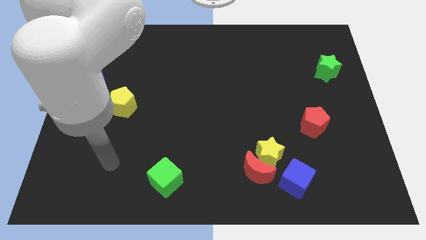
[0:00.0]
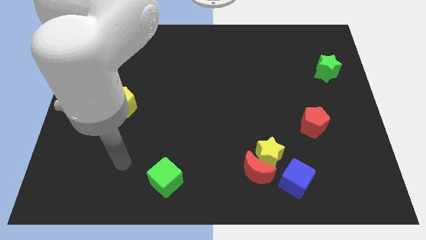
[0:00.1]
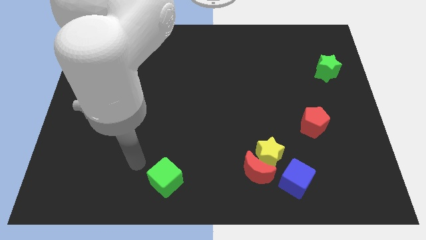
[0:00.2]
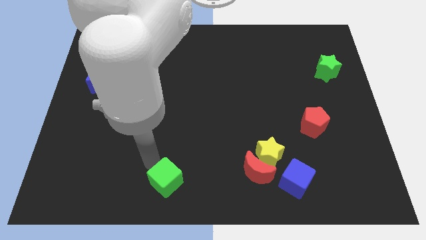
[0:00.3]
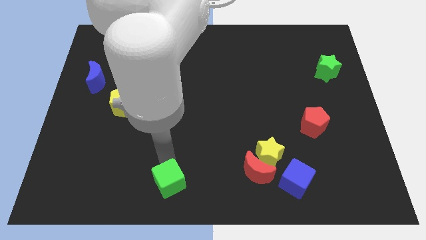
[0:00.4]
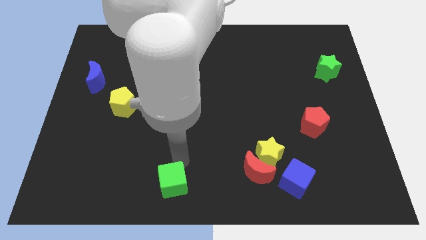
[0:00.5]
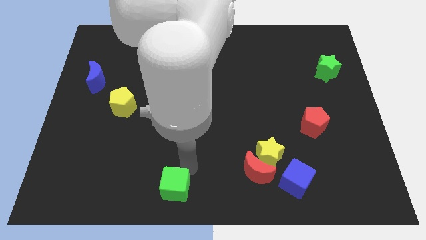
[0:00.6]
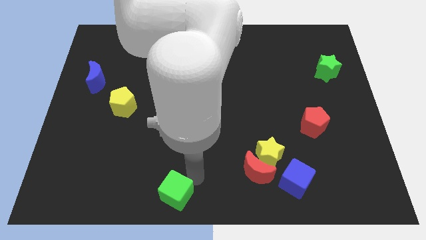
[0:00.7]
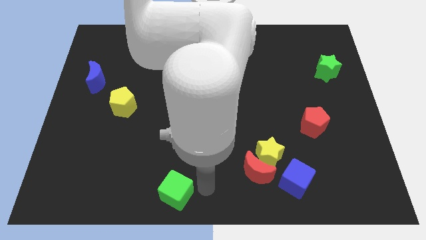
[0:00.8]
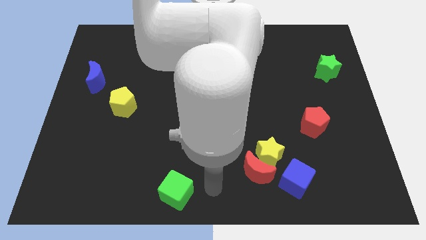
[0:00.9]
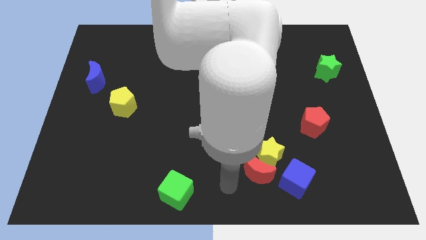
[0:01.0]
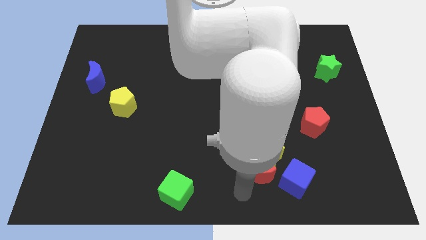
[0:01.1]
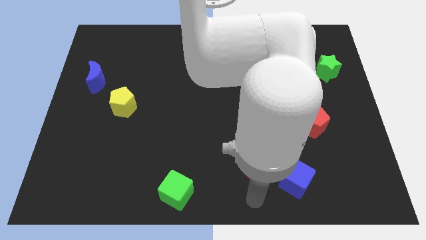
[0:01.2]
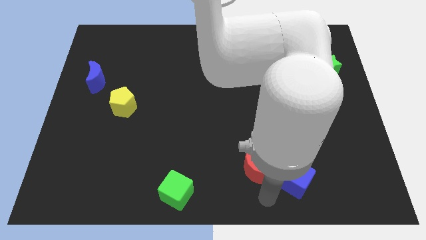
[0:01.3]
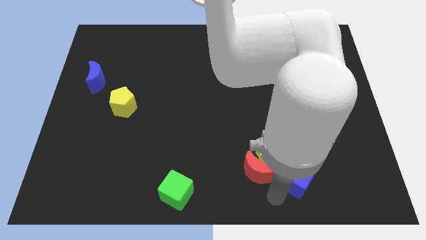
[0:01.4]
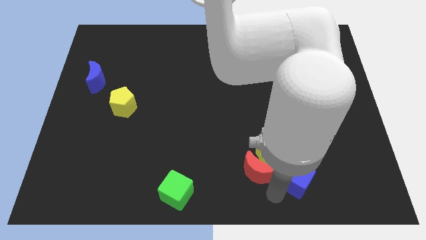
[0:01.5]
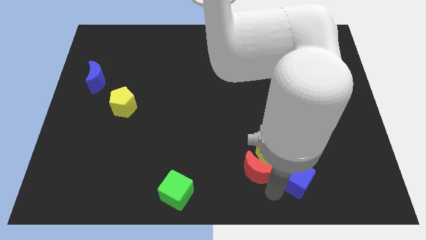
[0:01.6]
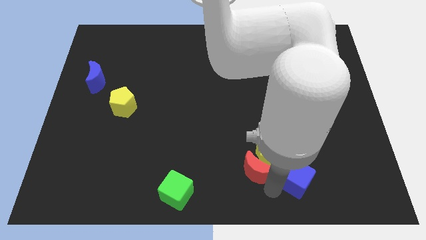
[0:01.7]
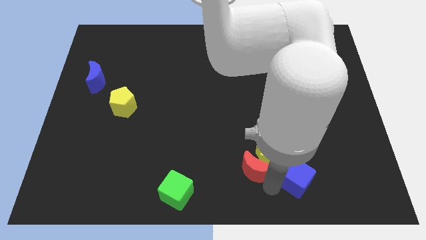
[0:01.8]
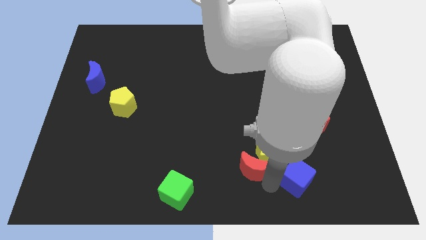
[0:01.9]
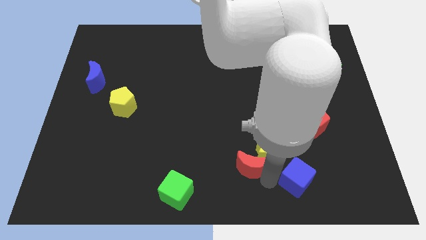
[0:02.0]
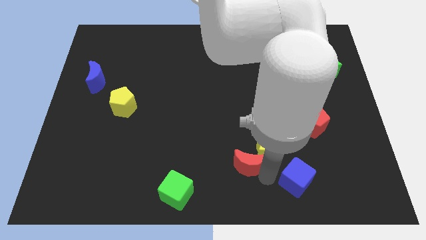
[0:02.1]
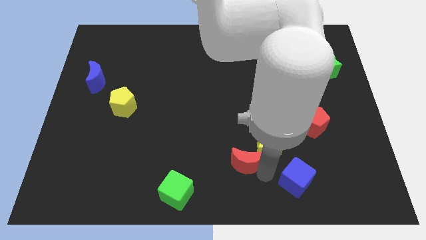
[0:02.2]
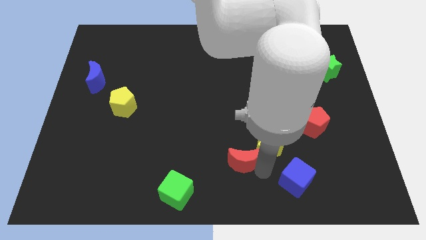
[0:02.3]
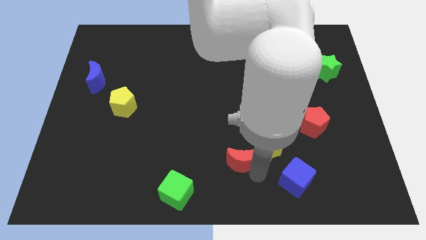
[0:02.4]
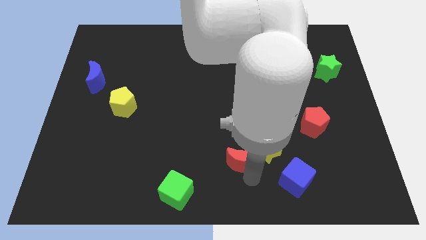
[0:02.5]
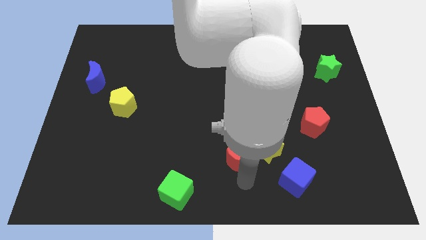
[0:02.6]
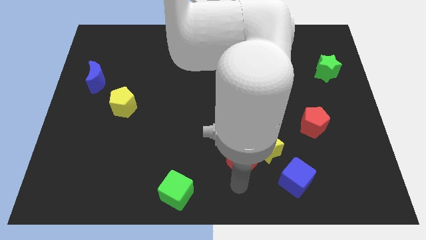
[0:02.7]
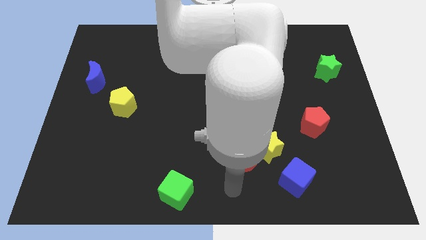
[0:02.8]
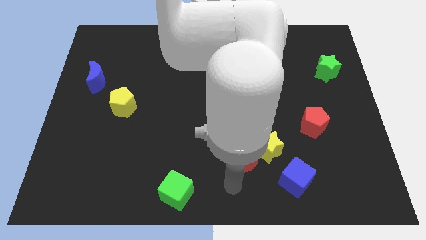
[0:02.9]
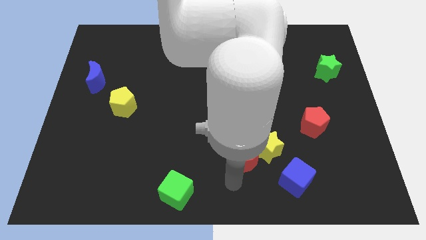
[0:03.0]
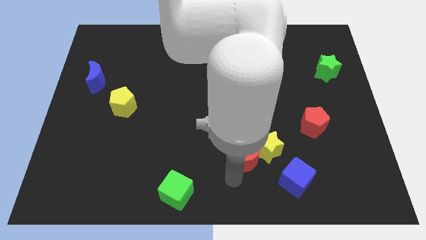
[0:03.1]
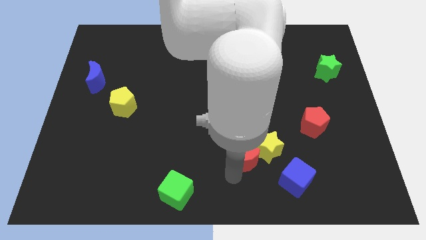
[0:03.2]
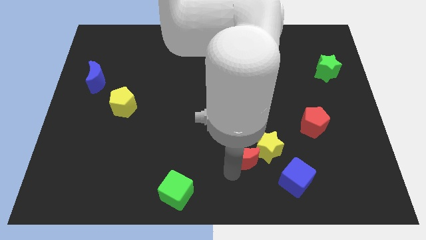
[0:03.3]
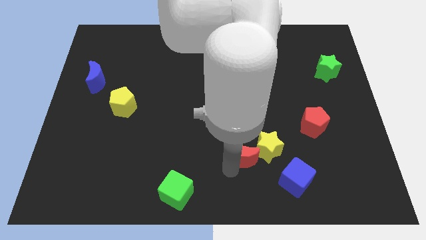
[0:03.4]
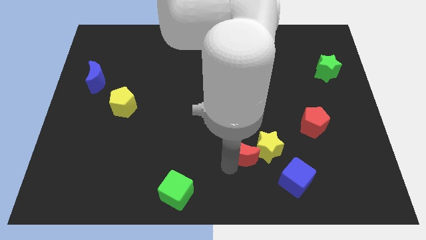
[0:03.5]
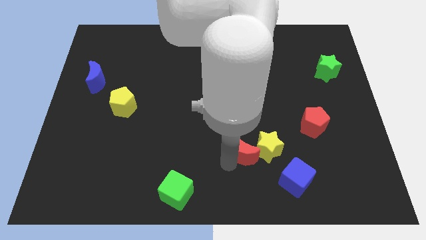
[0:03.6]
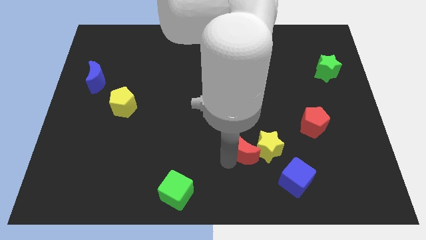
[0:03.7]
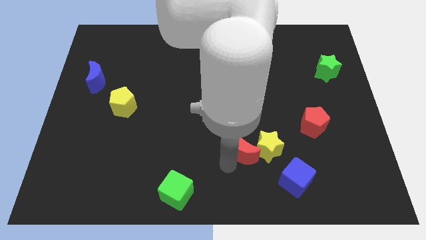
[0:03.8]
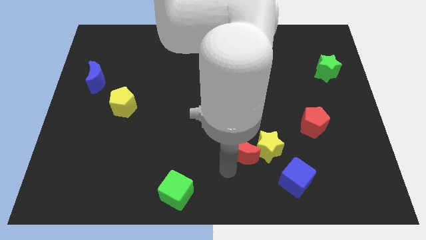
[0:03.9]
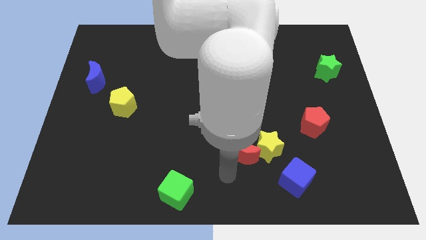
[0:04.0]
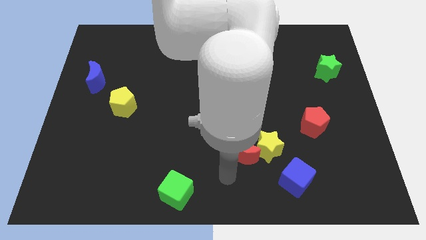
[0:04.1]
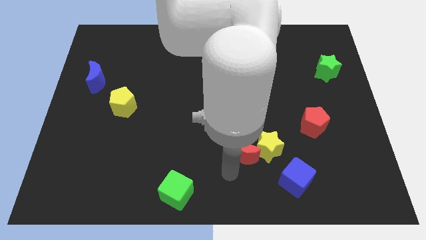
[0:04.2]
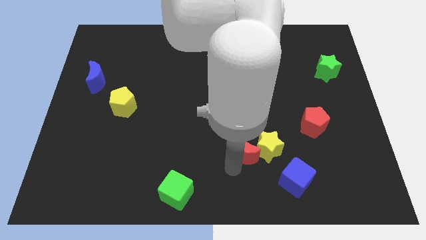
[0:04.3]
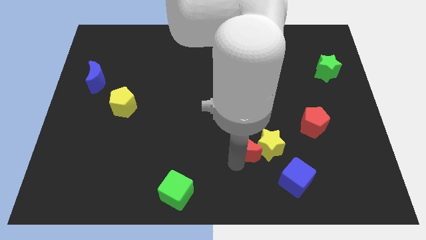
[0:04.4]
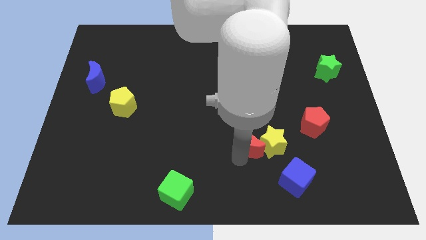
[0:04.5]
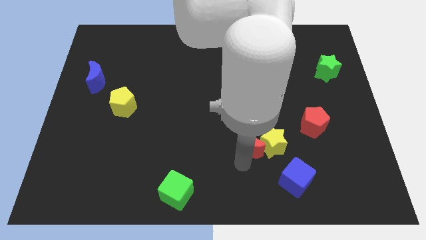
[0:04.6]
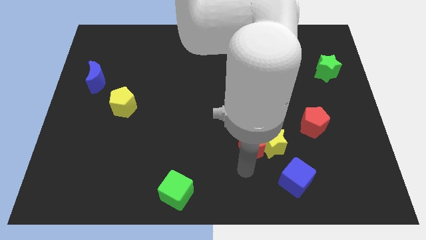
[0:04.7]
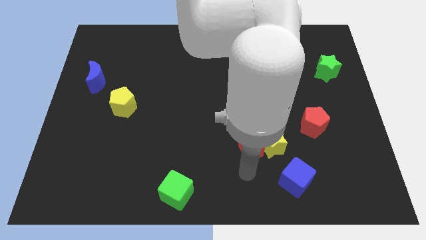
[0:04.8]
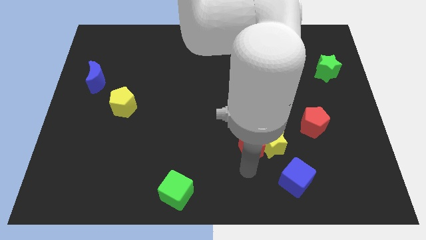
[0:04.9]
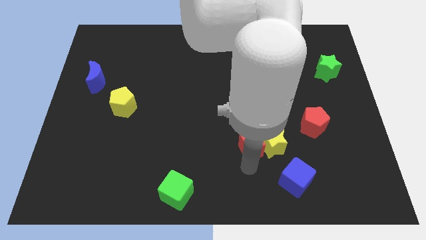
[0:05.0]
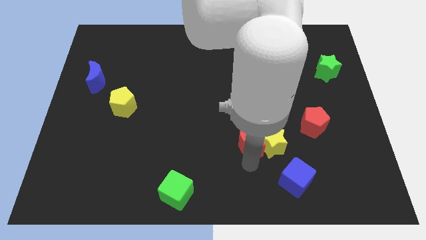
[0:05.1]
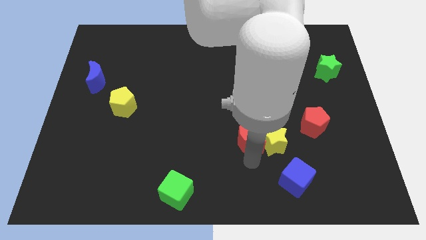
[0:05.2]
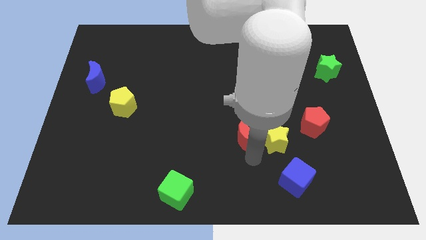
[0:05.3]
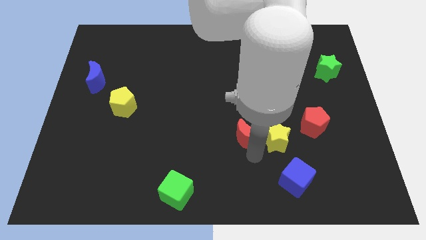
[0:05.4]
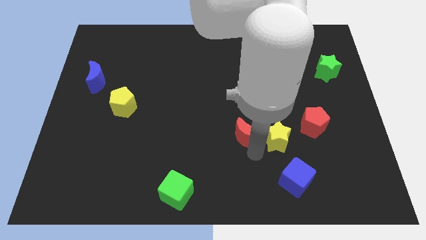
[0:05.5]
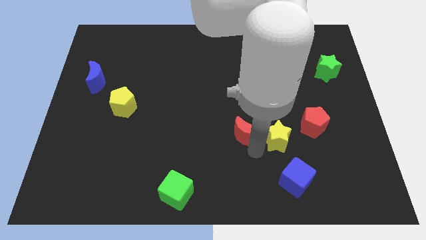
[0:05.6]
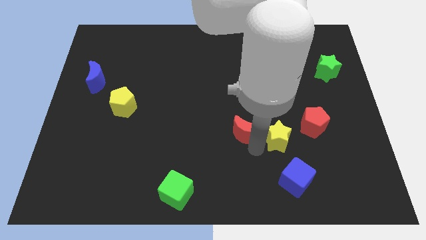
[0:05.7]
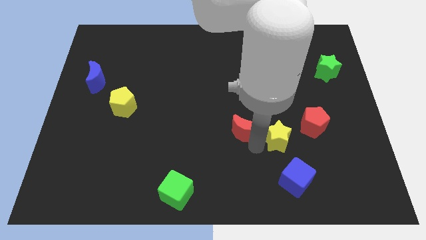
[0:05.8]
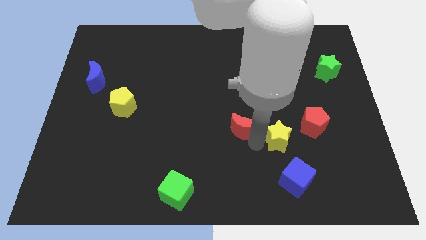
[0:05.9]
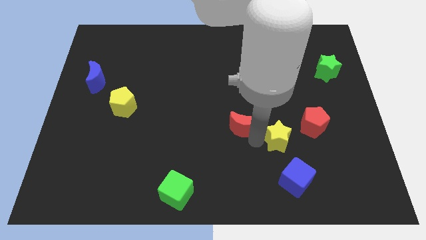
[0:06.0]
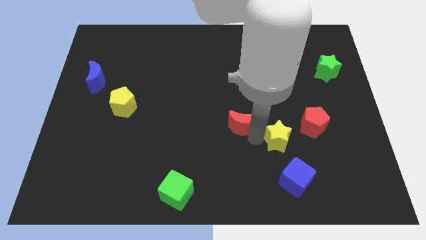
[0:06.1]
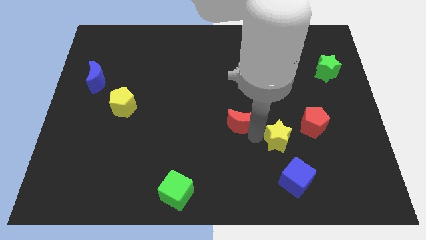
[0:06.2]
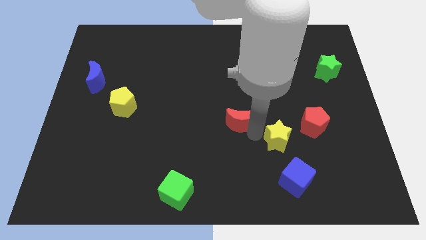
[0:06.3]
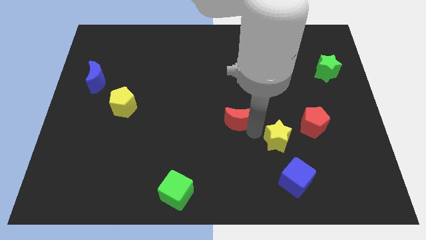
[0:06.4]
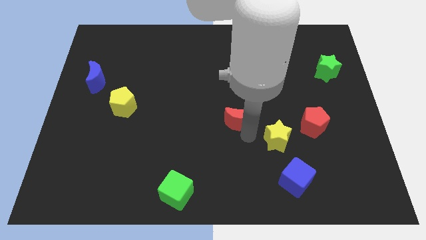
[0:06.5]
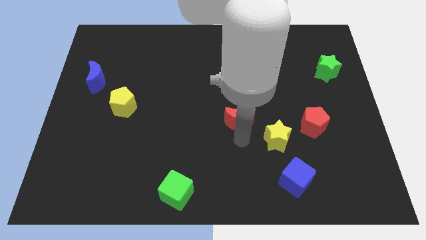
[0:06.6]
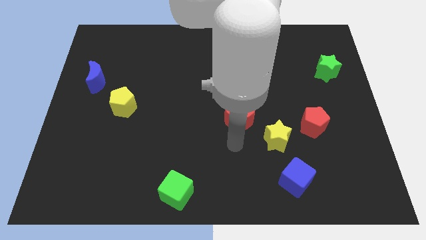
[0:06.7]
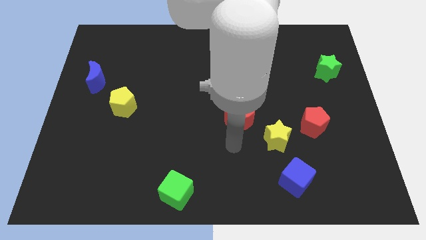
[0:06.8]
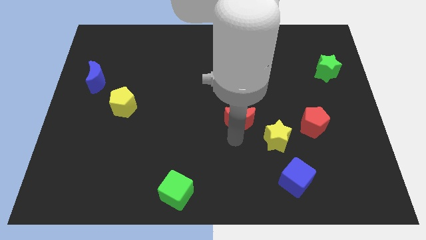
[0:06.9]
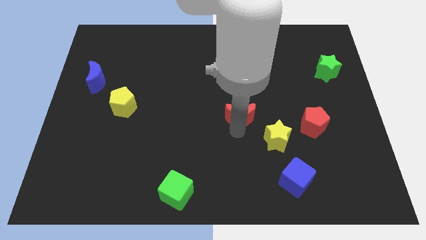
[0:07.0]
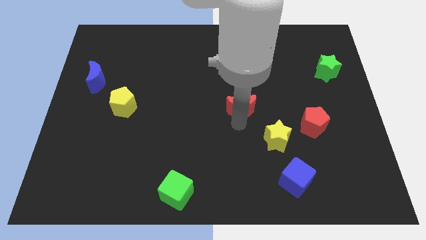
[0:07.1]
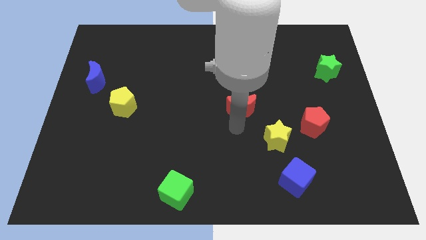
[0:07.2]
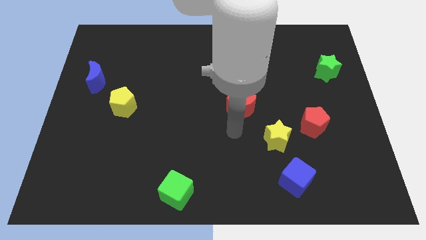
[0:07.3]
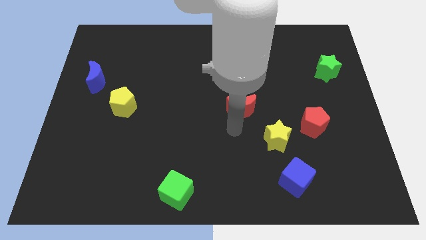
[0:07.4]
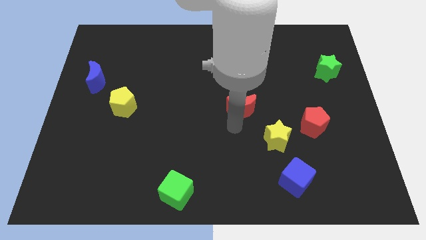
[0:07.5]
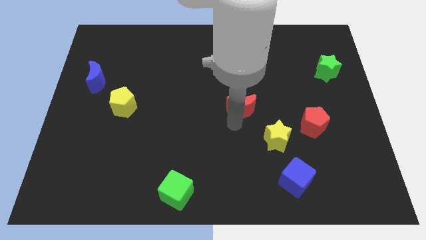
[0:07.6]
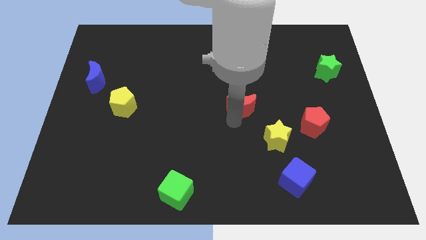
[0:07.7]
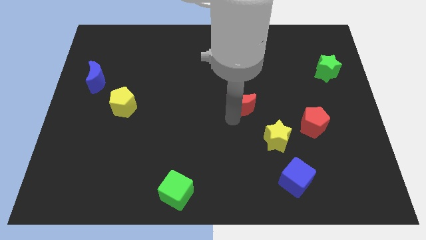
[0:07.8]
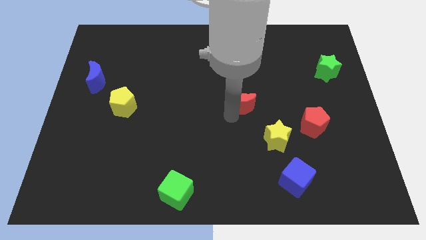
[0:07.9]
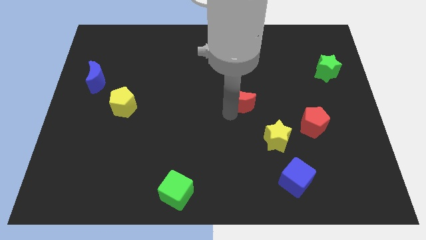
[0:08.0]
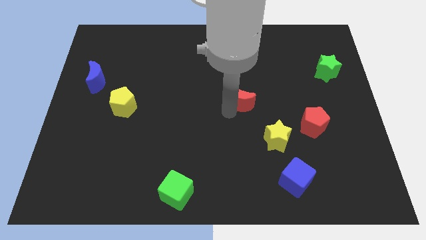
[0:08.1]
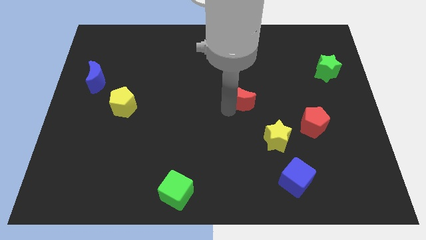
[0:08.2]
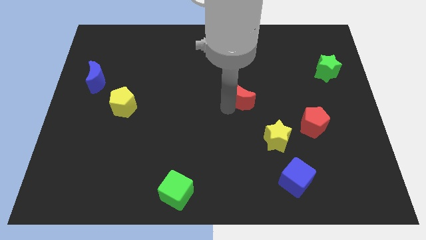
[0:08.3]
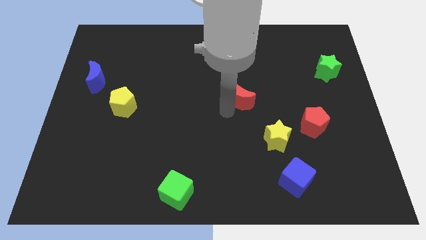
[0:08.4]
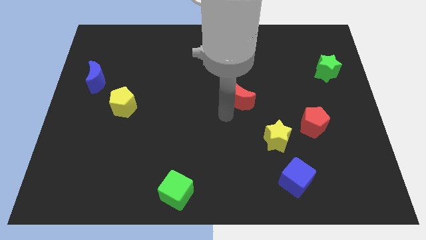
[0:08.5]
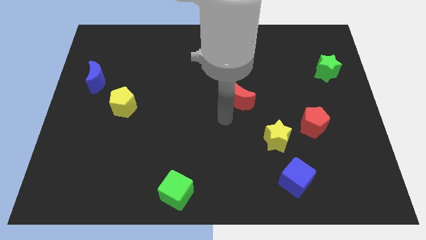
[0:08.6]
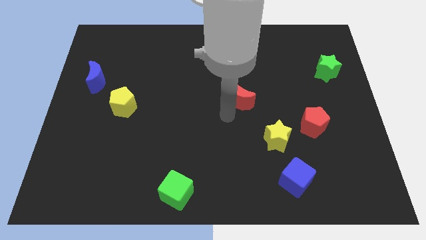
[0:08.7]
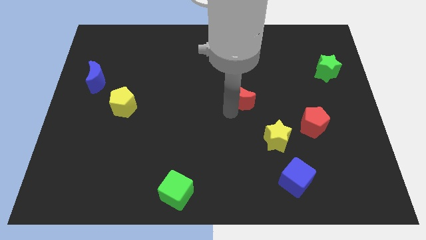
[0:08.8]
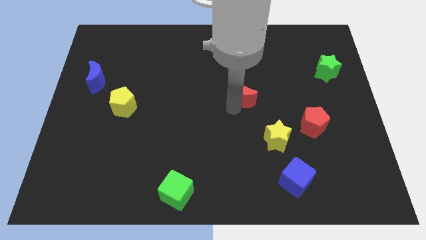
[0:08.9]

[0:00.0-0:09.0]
slide the red moon up
